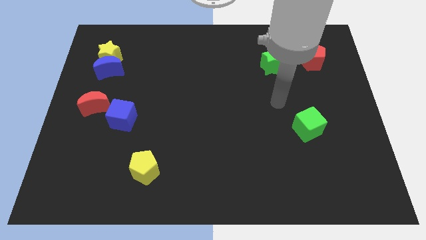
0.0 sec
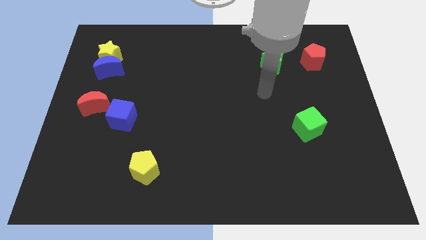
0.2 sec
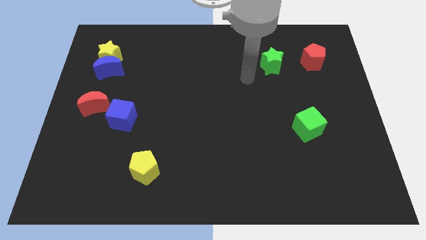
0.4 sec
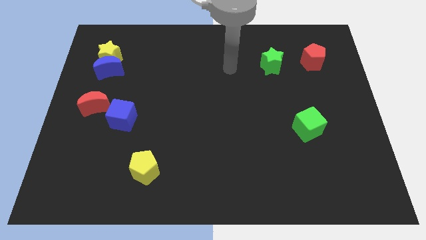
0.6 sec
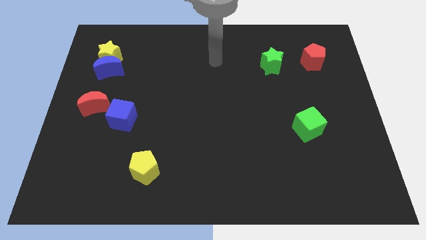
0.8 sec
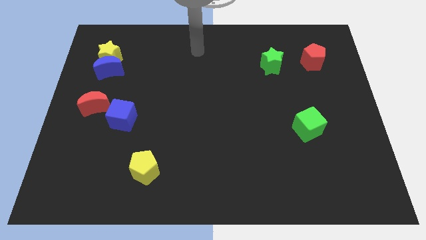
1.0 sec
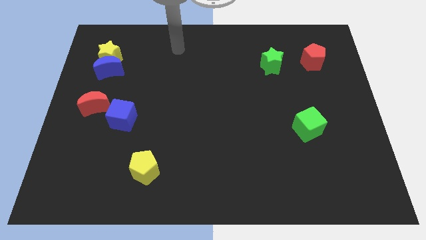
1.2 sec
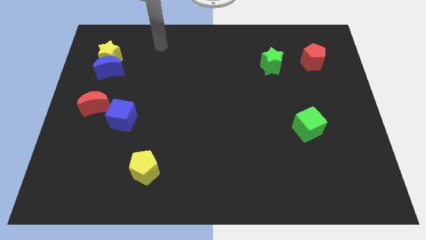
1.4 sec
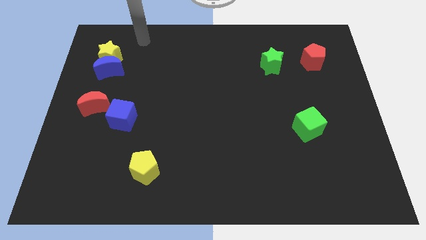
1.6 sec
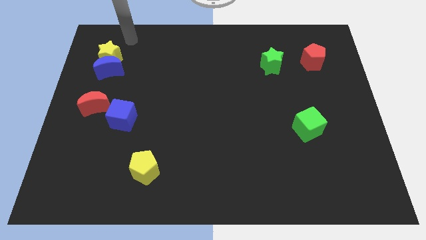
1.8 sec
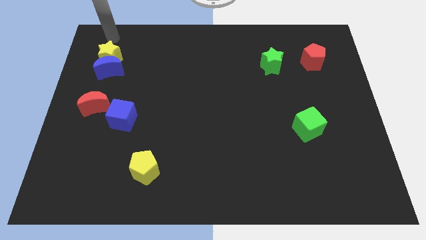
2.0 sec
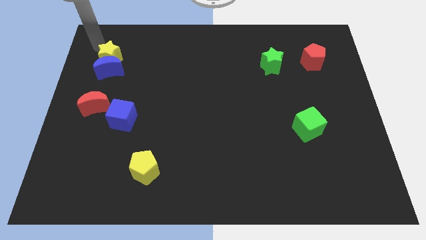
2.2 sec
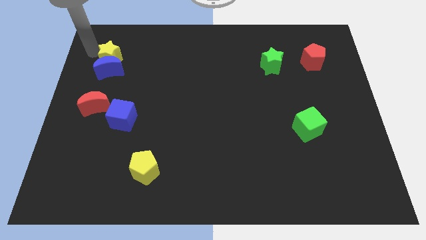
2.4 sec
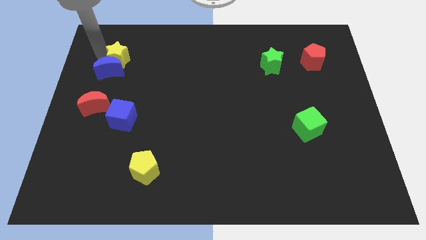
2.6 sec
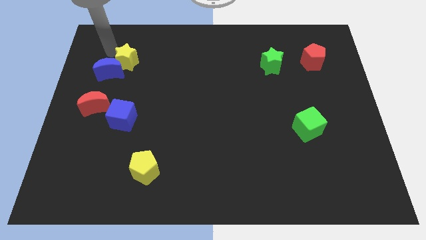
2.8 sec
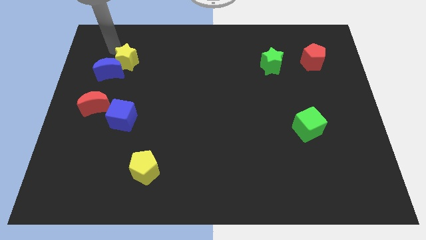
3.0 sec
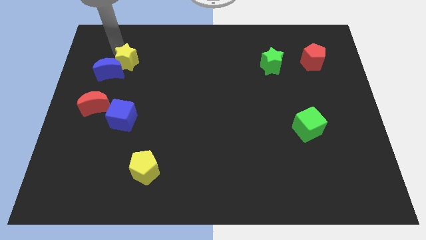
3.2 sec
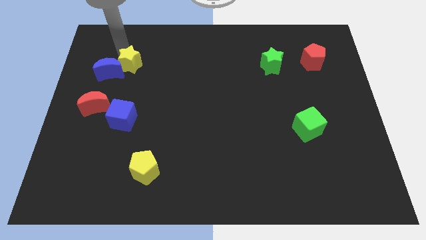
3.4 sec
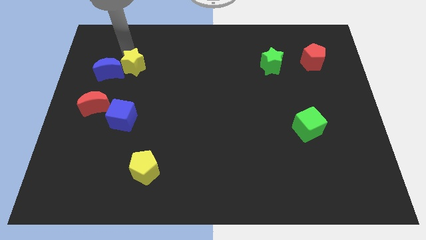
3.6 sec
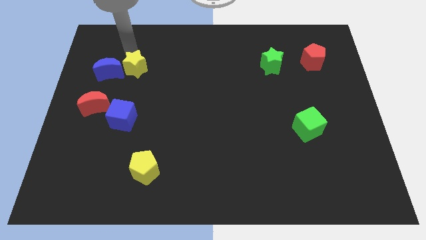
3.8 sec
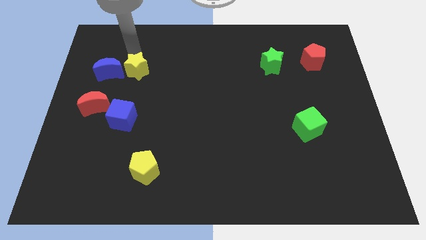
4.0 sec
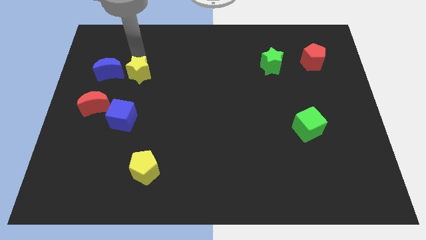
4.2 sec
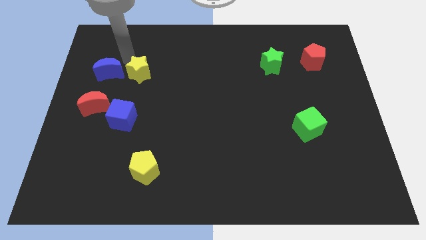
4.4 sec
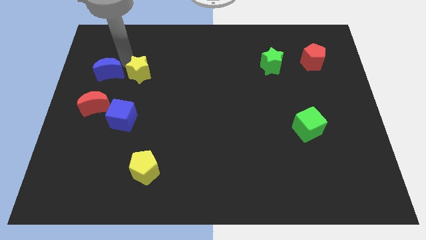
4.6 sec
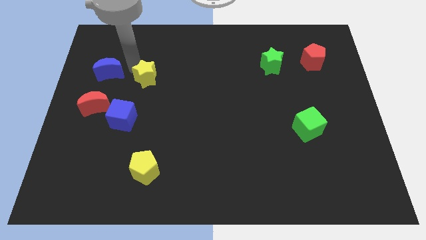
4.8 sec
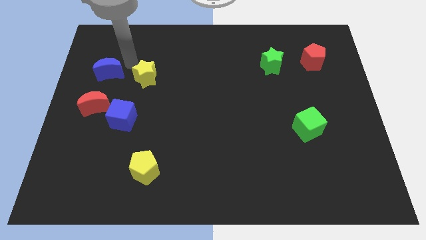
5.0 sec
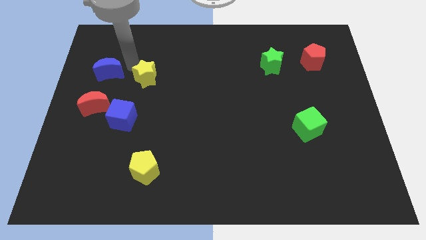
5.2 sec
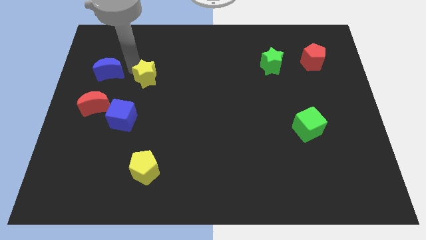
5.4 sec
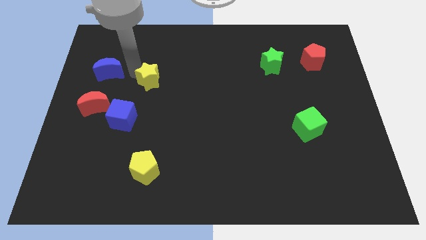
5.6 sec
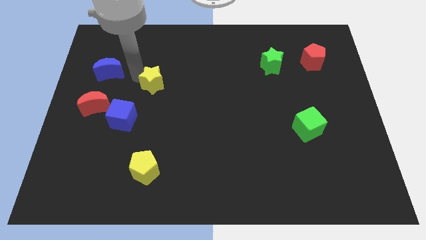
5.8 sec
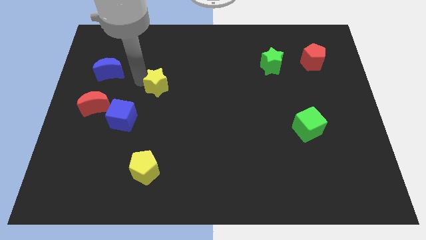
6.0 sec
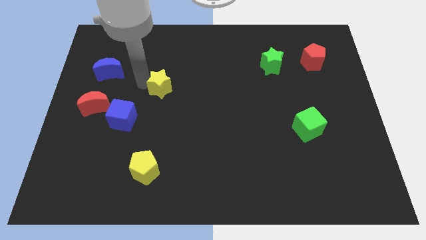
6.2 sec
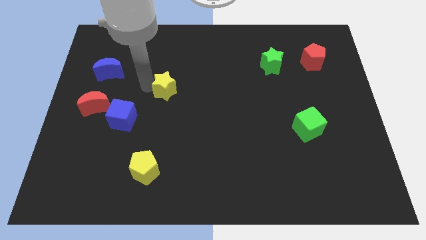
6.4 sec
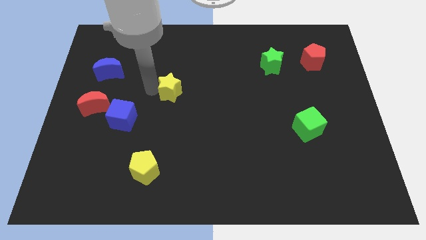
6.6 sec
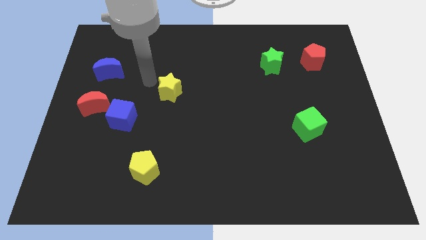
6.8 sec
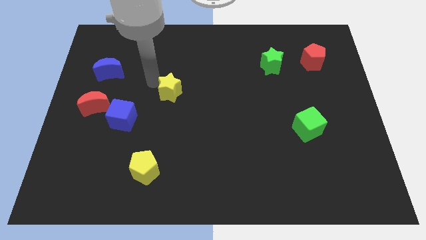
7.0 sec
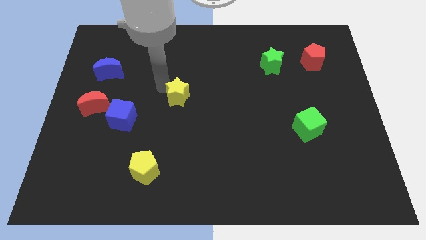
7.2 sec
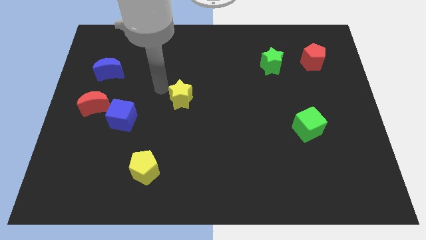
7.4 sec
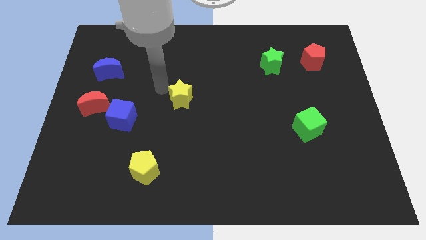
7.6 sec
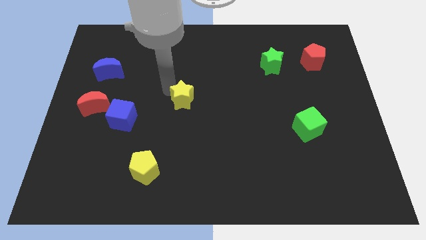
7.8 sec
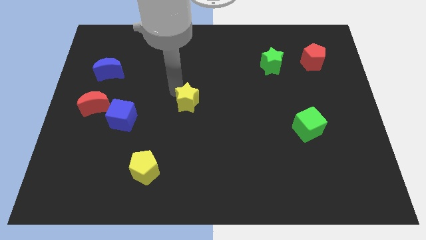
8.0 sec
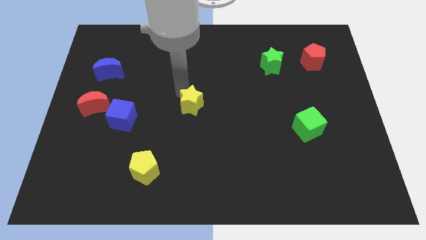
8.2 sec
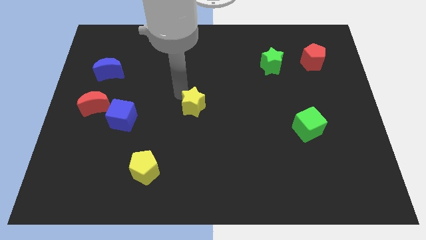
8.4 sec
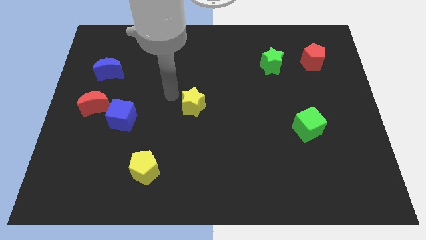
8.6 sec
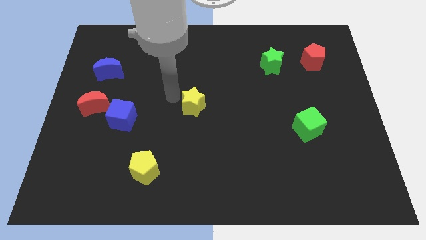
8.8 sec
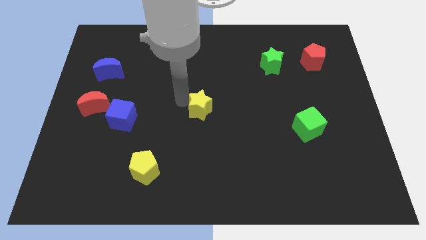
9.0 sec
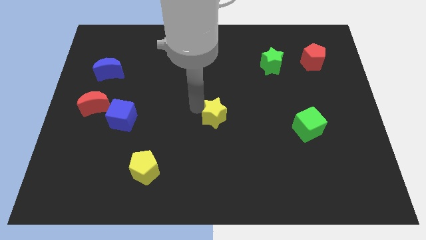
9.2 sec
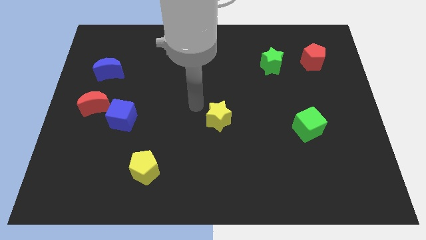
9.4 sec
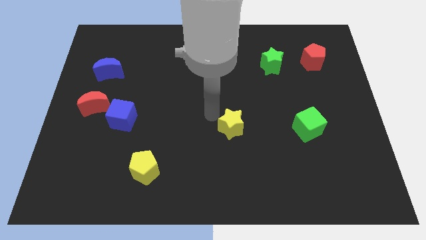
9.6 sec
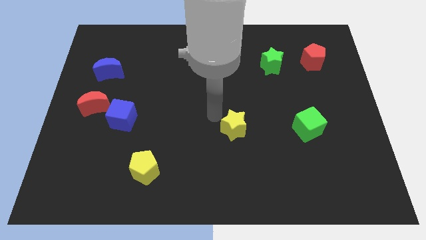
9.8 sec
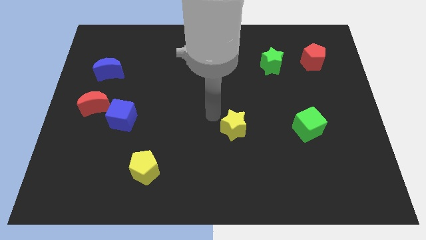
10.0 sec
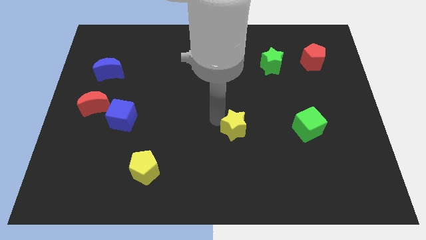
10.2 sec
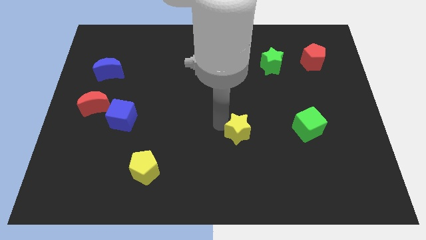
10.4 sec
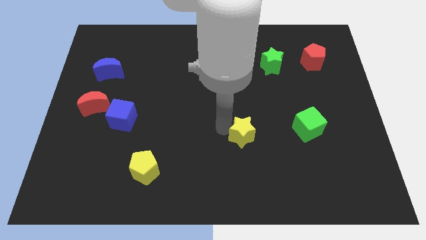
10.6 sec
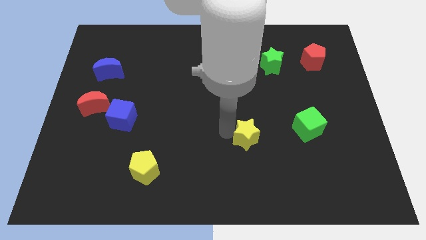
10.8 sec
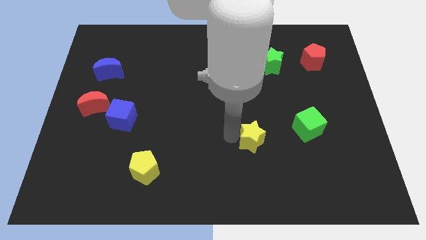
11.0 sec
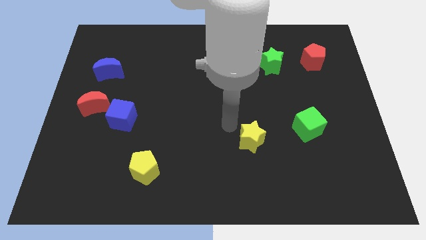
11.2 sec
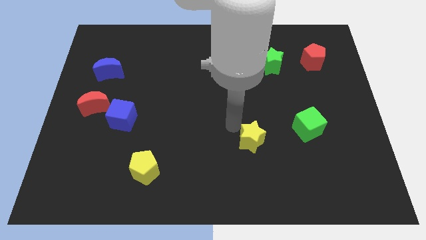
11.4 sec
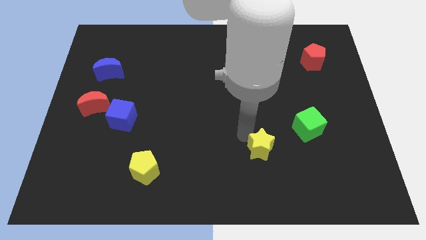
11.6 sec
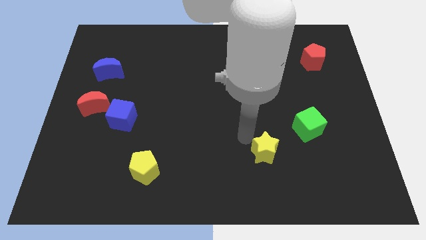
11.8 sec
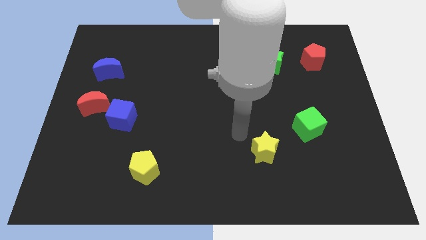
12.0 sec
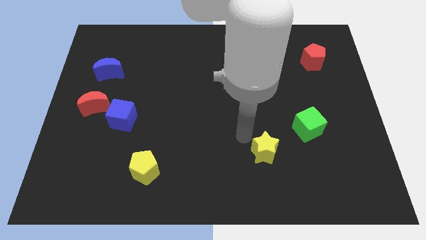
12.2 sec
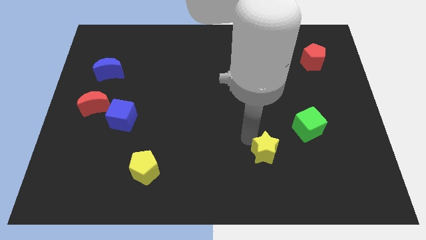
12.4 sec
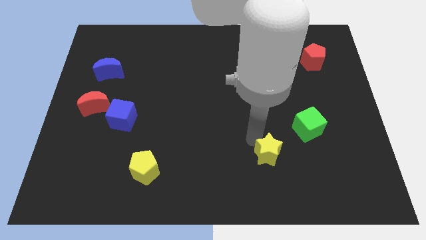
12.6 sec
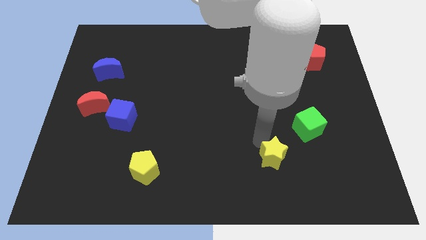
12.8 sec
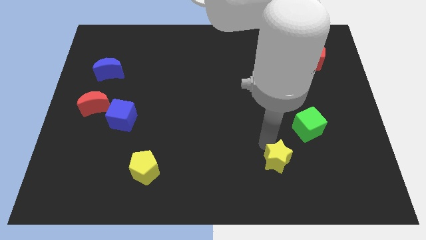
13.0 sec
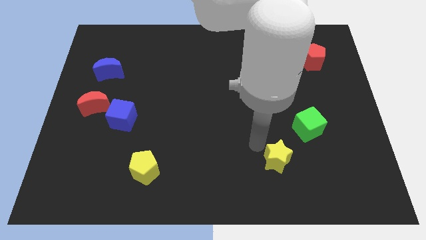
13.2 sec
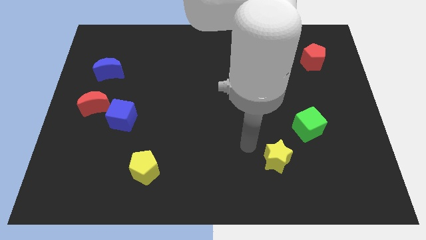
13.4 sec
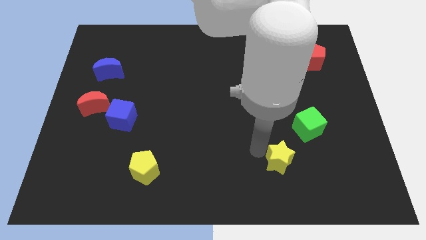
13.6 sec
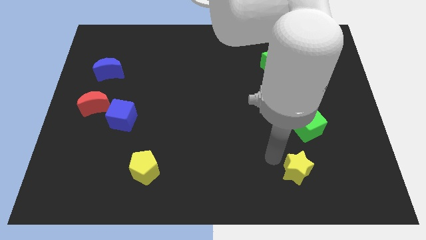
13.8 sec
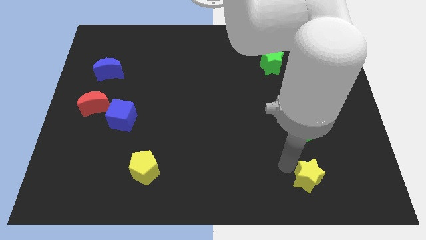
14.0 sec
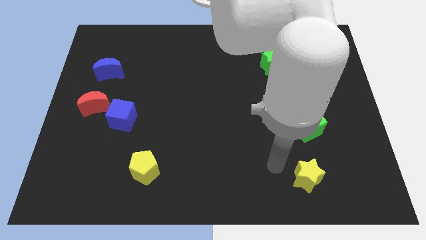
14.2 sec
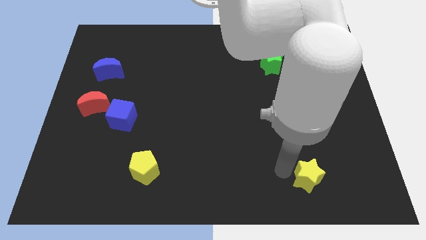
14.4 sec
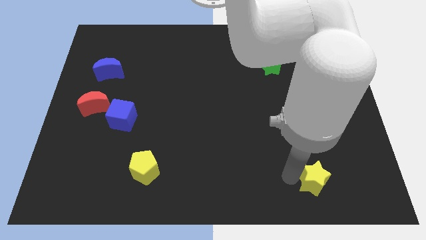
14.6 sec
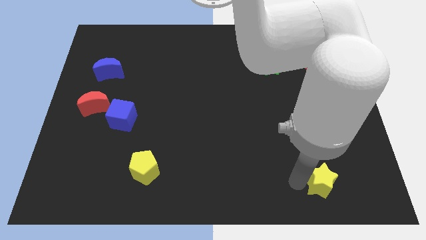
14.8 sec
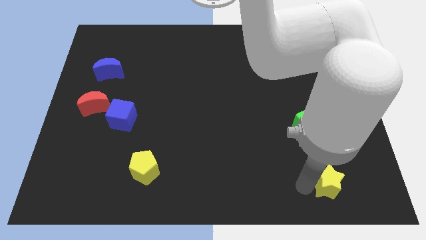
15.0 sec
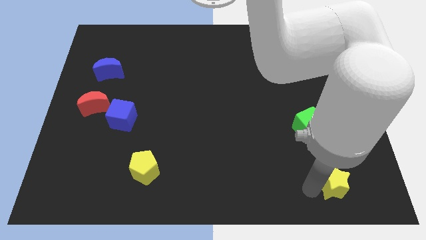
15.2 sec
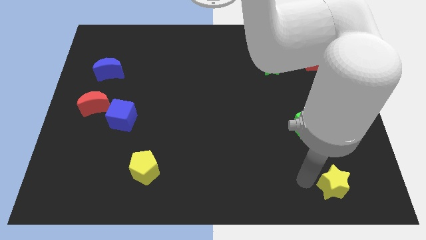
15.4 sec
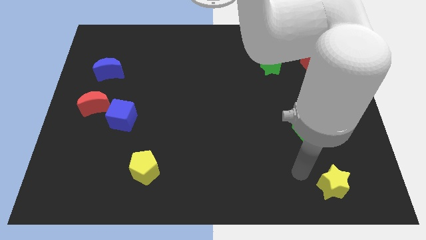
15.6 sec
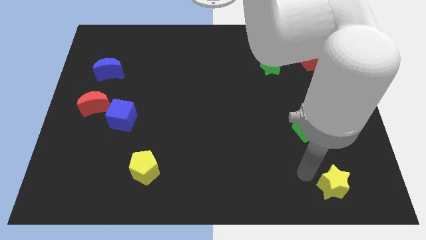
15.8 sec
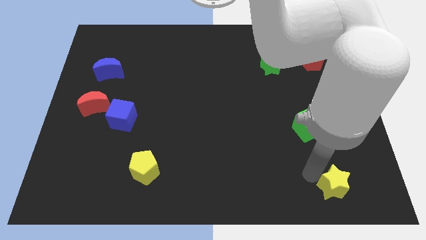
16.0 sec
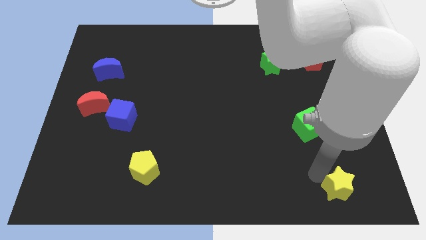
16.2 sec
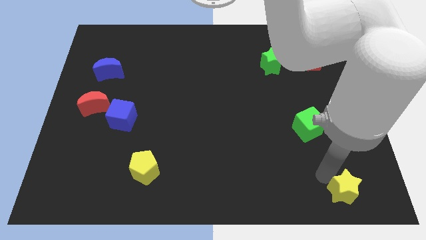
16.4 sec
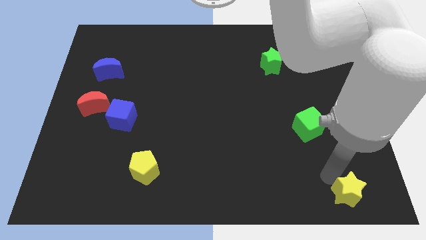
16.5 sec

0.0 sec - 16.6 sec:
slide the yellow star to the bottom right
